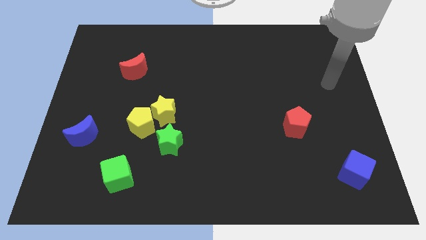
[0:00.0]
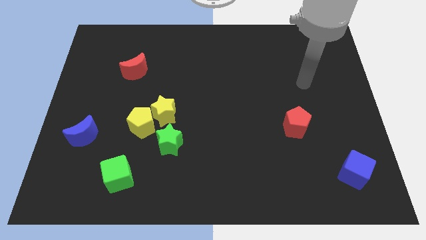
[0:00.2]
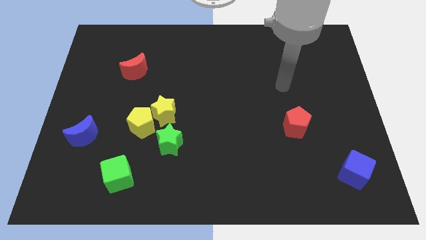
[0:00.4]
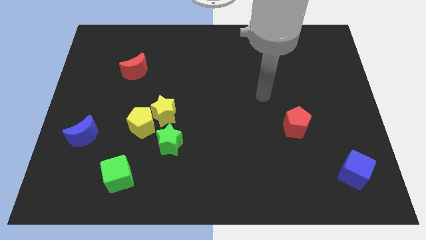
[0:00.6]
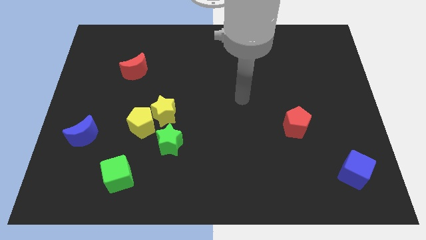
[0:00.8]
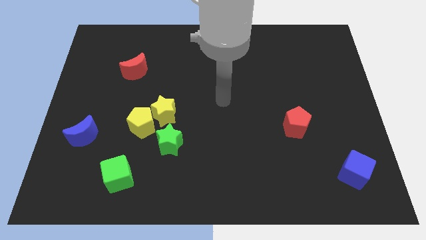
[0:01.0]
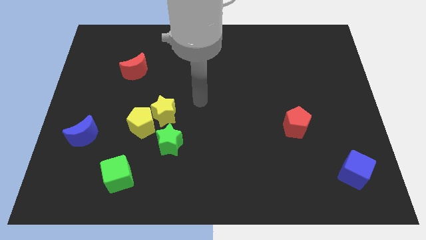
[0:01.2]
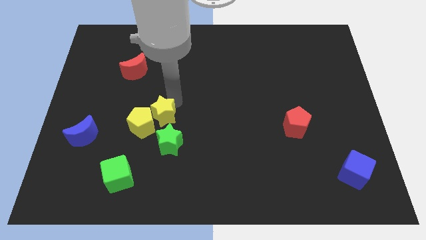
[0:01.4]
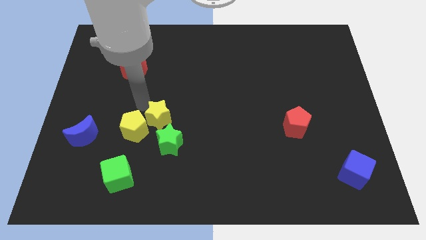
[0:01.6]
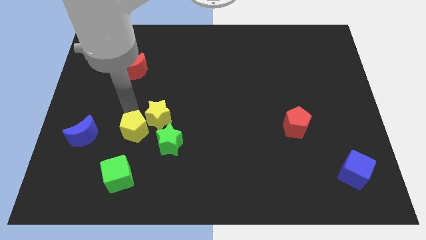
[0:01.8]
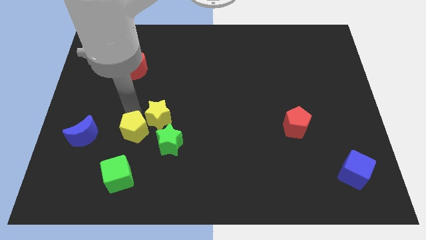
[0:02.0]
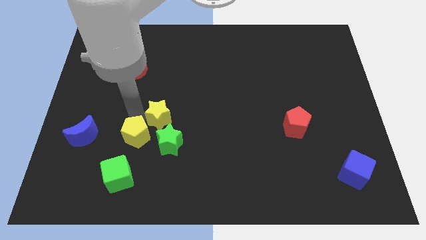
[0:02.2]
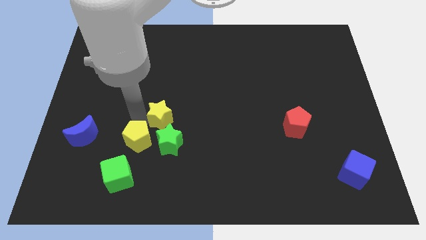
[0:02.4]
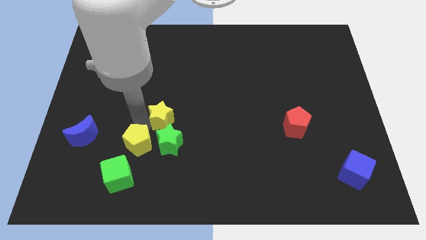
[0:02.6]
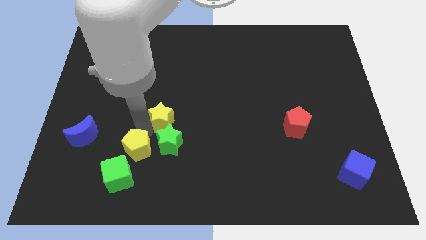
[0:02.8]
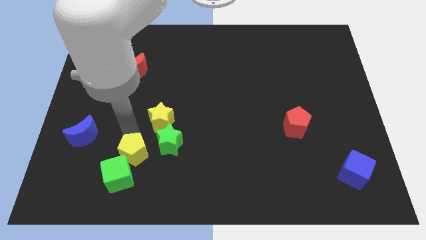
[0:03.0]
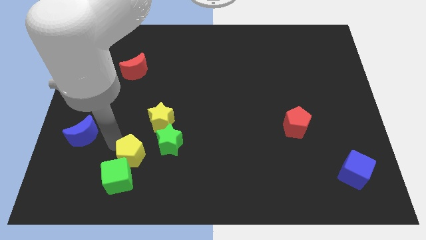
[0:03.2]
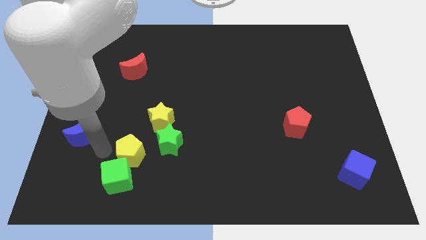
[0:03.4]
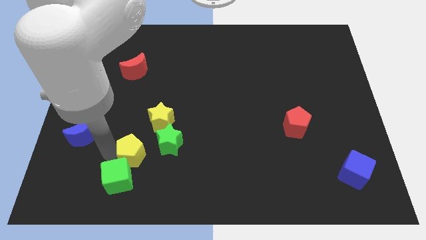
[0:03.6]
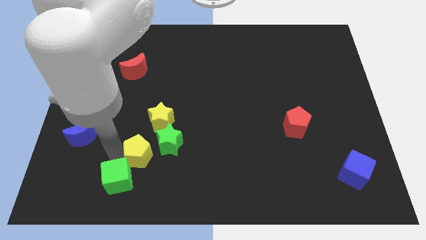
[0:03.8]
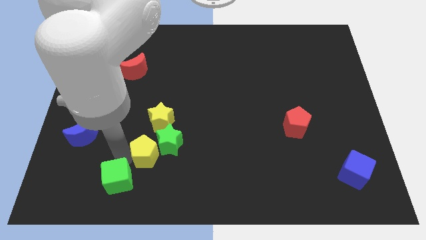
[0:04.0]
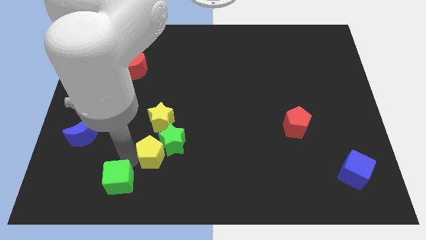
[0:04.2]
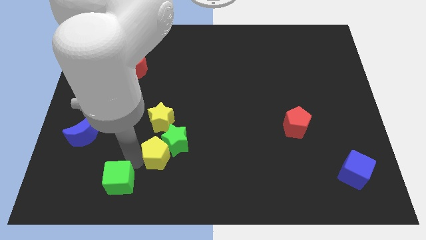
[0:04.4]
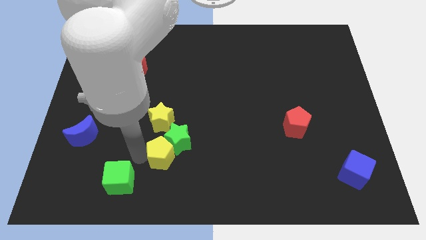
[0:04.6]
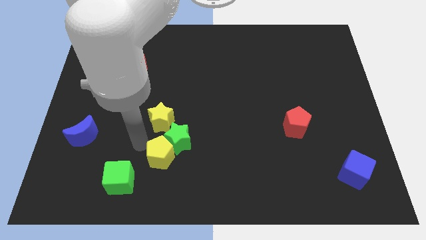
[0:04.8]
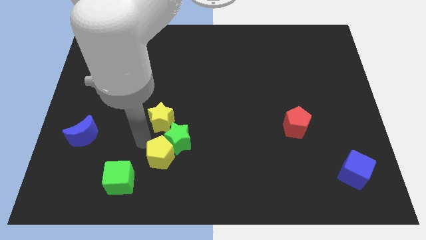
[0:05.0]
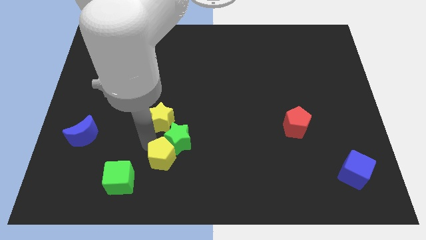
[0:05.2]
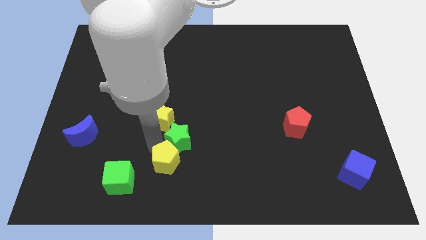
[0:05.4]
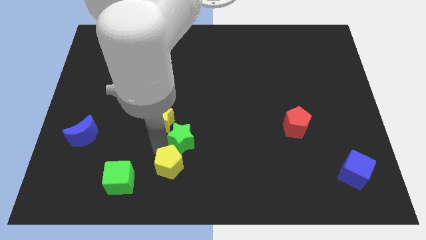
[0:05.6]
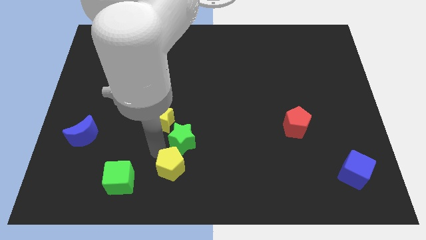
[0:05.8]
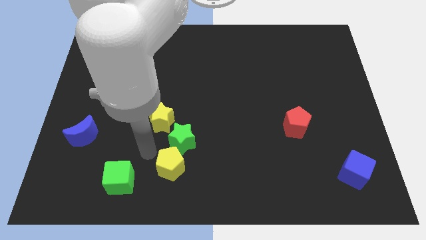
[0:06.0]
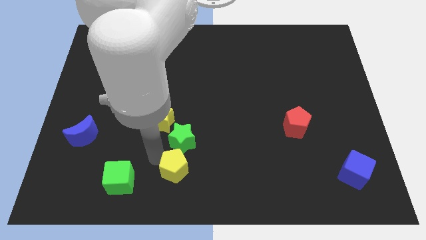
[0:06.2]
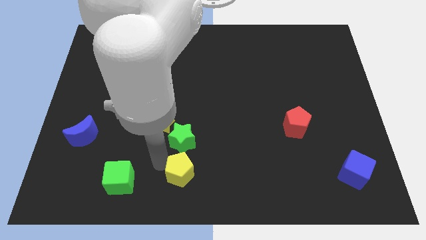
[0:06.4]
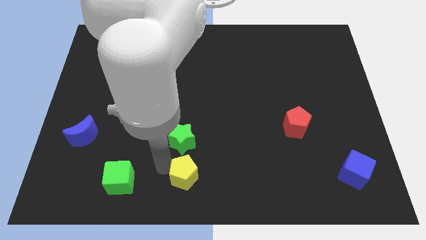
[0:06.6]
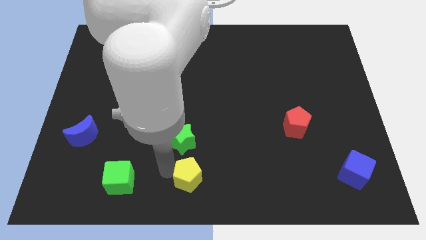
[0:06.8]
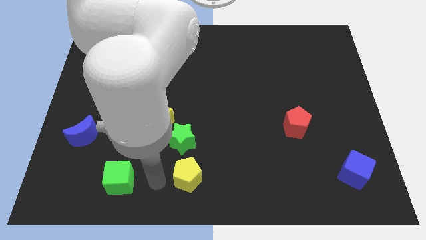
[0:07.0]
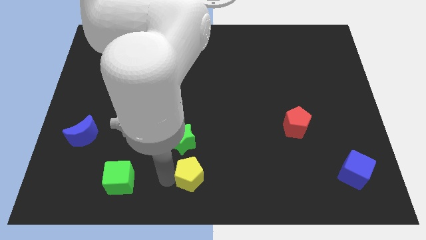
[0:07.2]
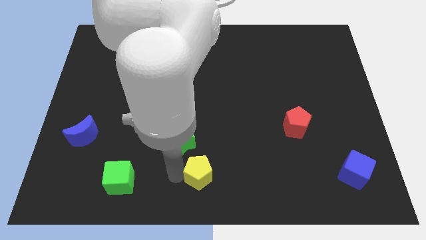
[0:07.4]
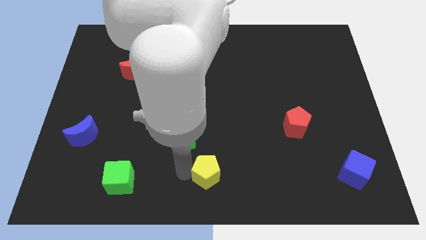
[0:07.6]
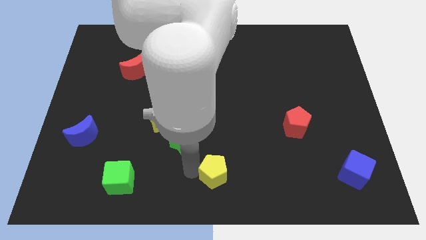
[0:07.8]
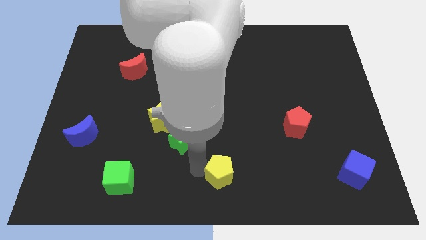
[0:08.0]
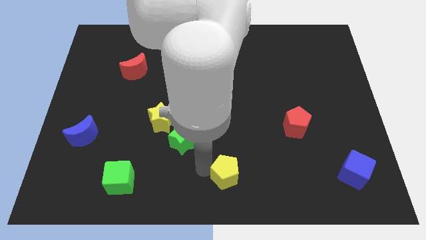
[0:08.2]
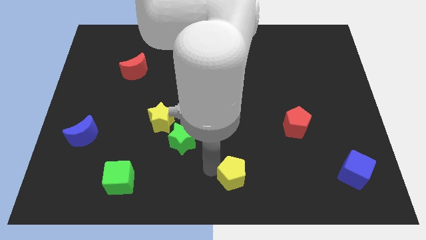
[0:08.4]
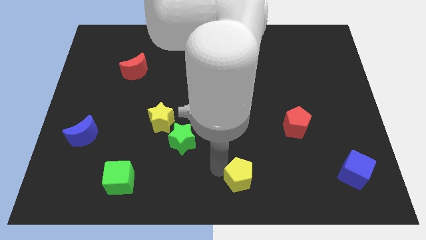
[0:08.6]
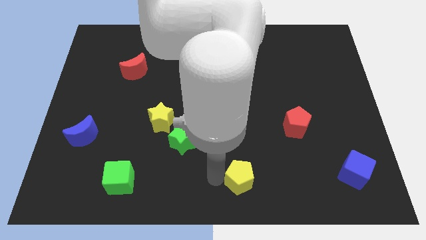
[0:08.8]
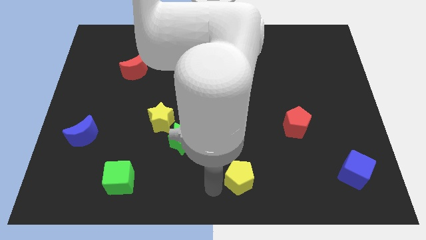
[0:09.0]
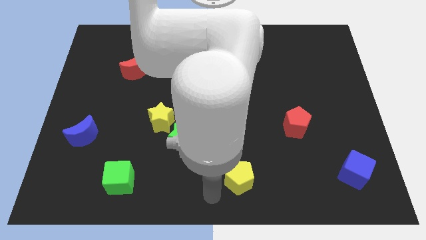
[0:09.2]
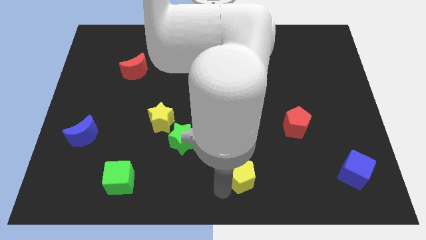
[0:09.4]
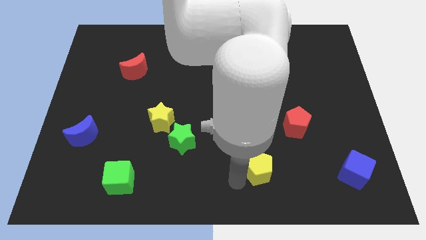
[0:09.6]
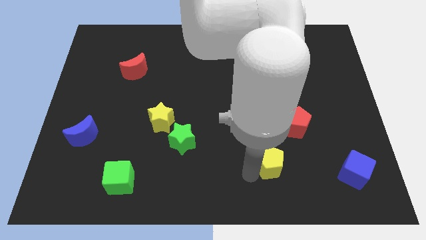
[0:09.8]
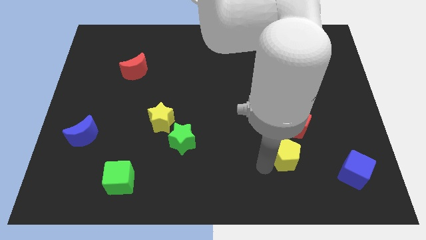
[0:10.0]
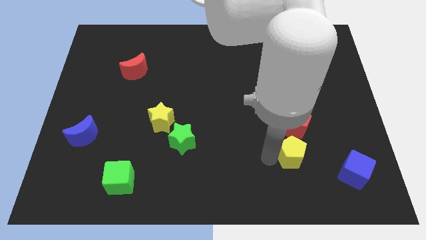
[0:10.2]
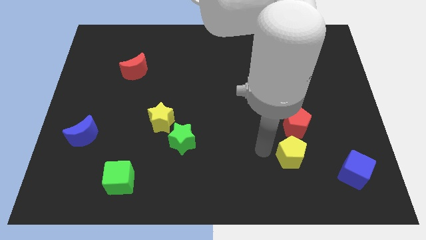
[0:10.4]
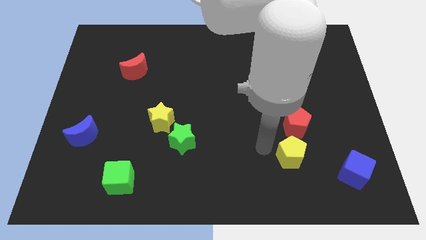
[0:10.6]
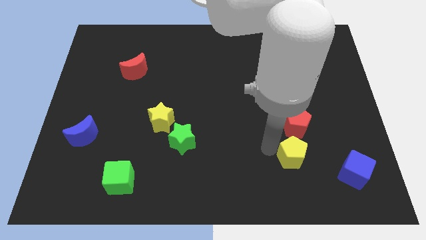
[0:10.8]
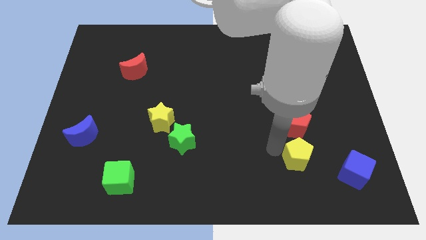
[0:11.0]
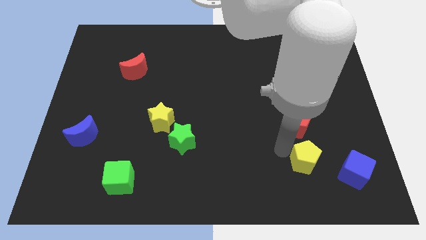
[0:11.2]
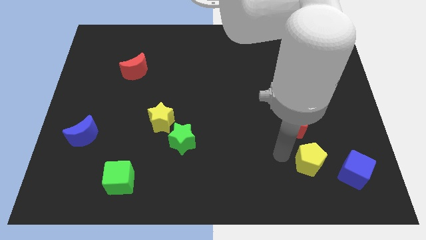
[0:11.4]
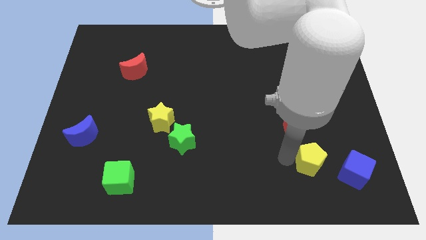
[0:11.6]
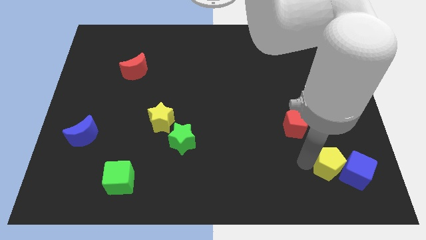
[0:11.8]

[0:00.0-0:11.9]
put the yellow pentagon towards the blue cube

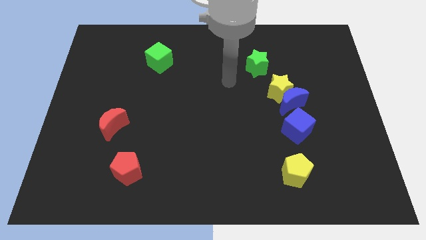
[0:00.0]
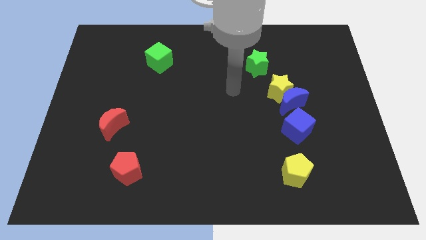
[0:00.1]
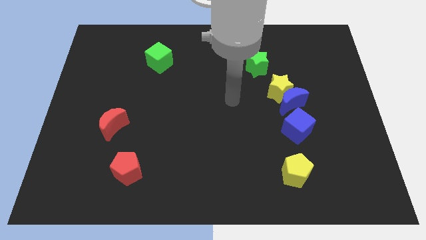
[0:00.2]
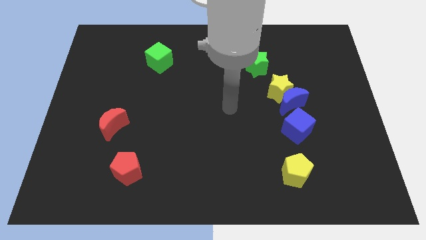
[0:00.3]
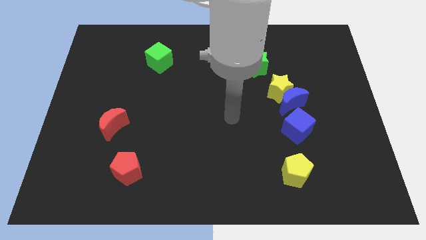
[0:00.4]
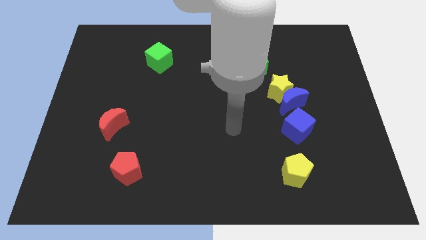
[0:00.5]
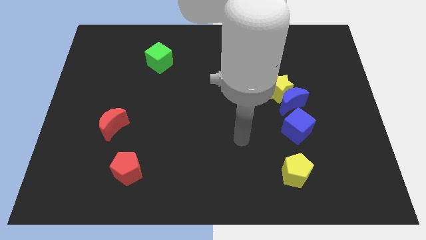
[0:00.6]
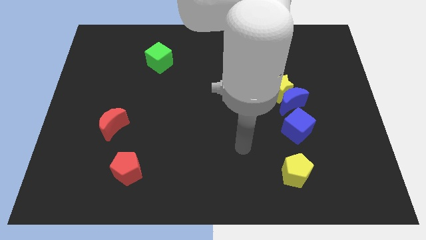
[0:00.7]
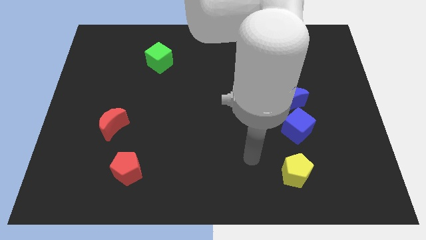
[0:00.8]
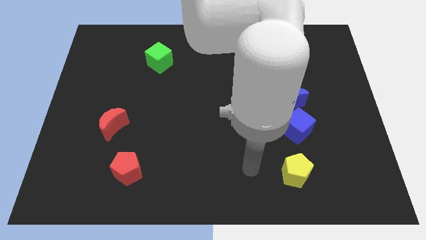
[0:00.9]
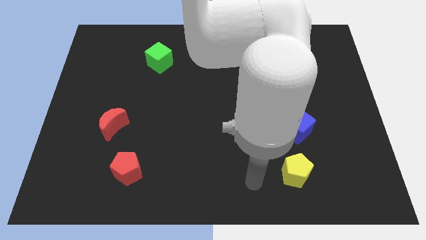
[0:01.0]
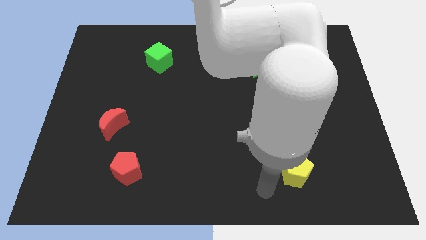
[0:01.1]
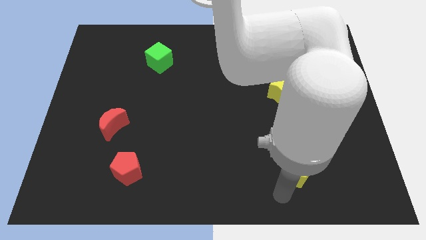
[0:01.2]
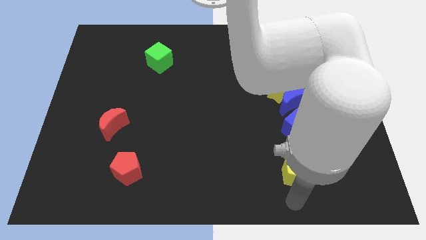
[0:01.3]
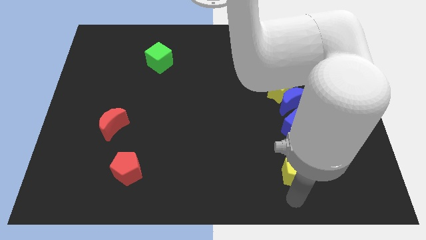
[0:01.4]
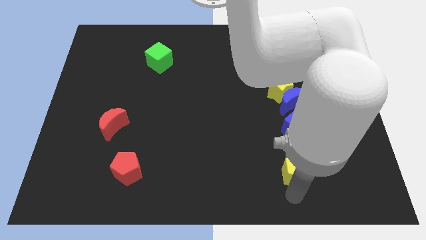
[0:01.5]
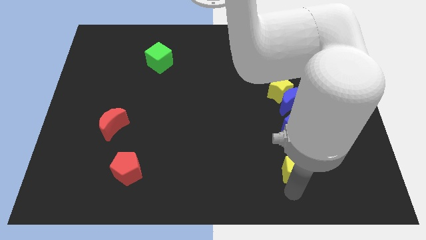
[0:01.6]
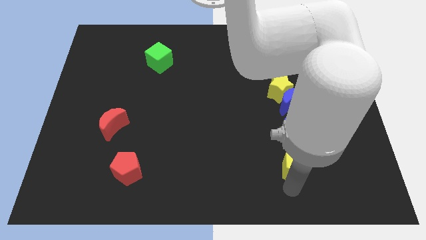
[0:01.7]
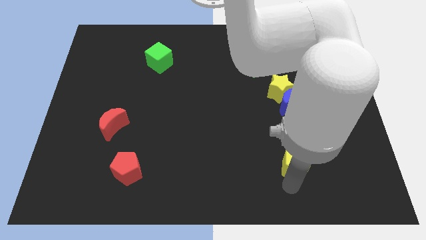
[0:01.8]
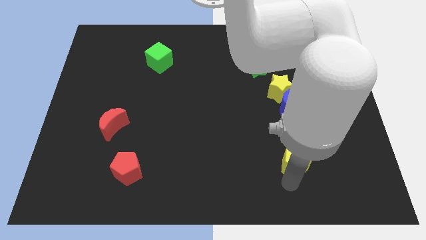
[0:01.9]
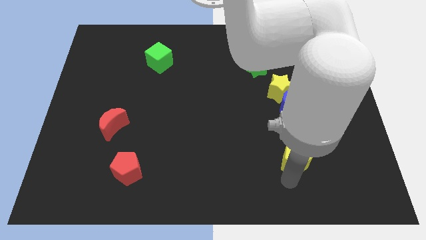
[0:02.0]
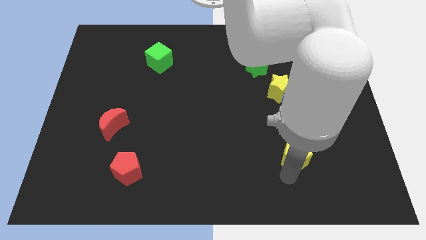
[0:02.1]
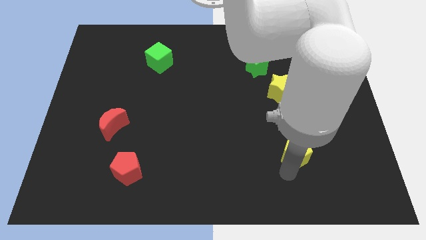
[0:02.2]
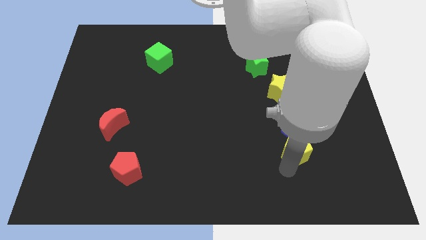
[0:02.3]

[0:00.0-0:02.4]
move the yellow pentagon towards the blue cube
